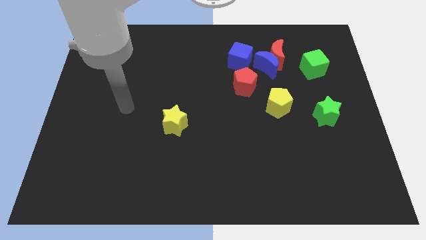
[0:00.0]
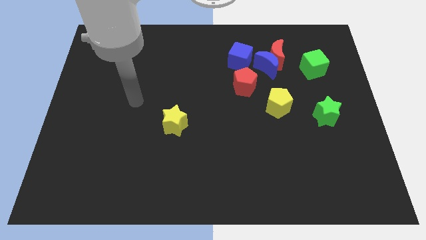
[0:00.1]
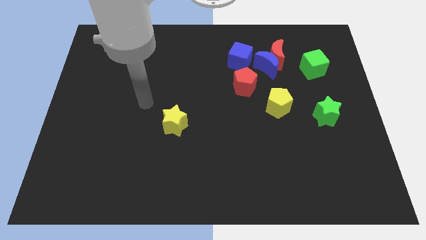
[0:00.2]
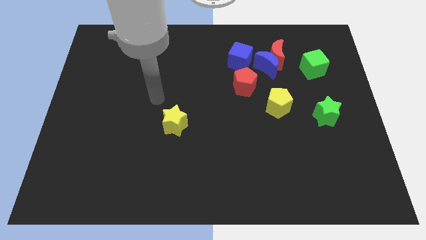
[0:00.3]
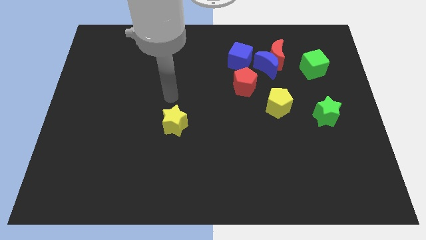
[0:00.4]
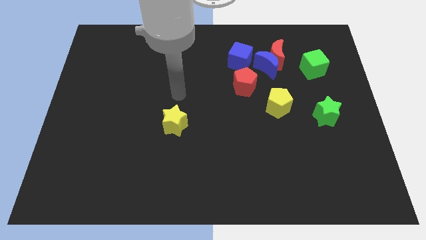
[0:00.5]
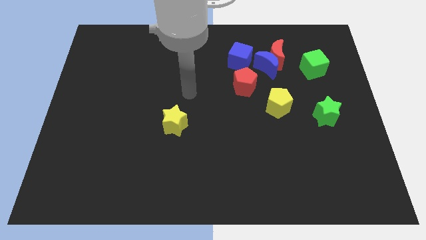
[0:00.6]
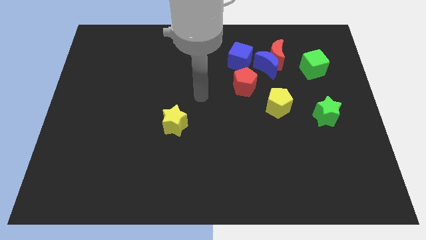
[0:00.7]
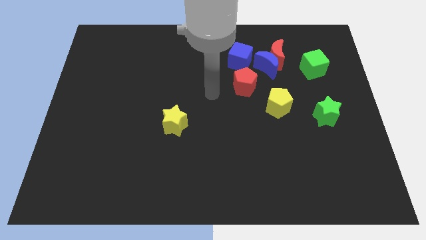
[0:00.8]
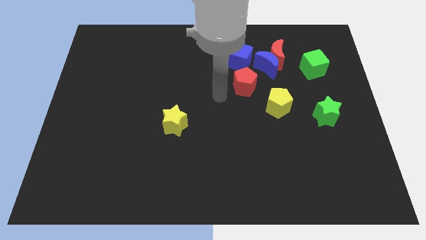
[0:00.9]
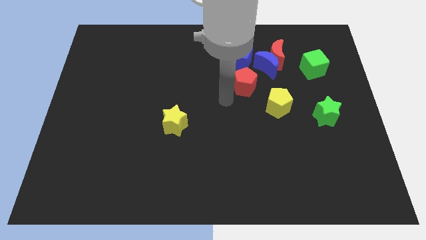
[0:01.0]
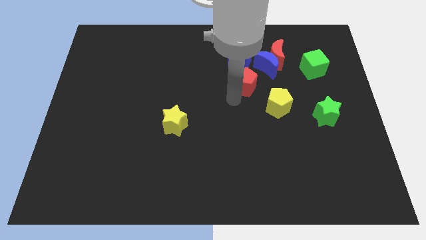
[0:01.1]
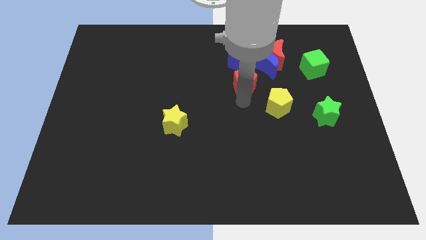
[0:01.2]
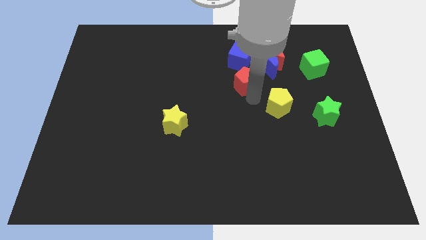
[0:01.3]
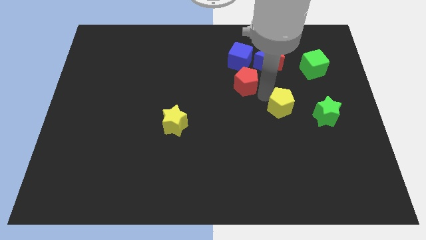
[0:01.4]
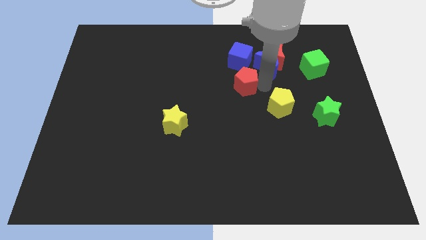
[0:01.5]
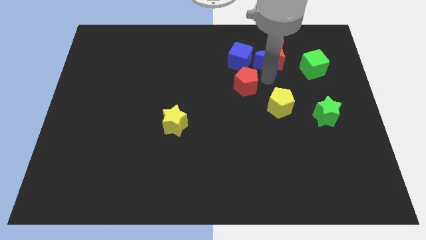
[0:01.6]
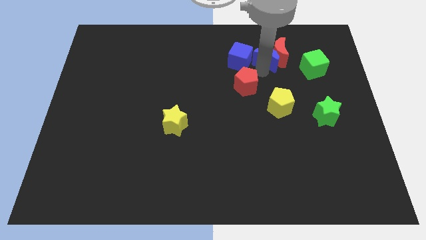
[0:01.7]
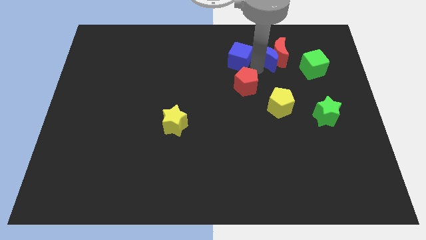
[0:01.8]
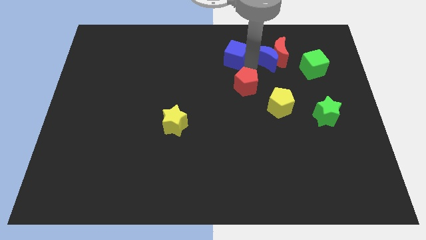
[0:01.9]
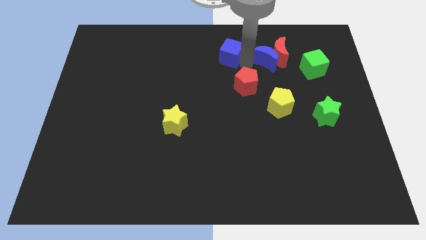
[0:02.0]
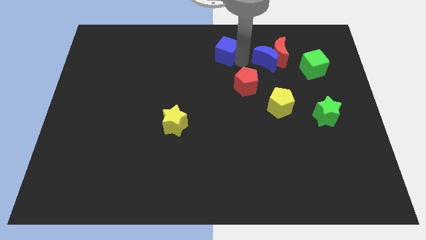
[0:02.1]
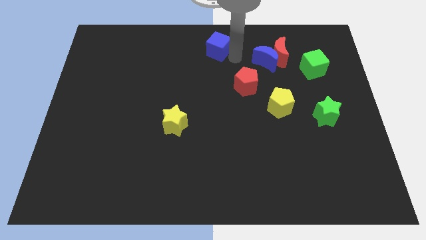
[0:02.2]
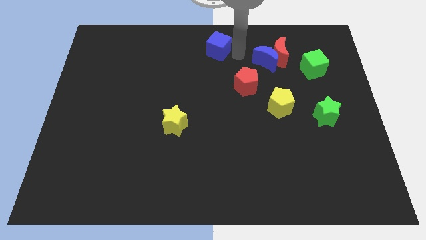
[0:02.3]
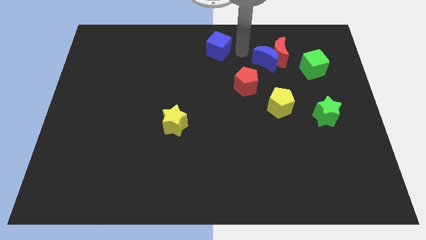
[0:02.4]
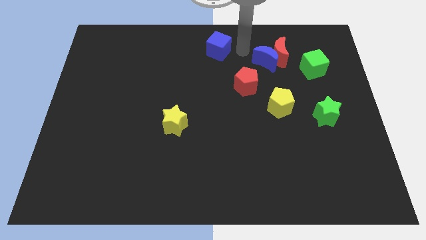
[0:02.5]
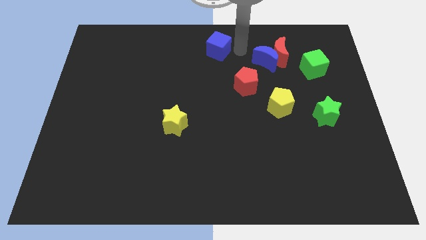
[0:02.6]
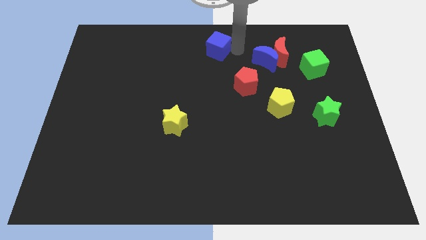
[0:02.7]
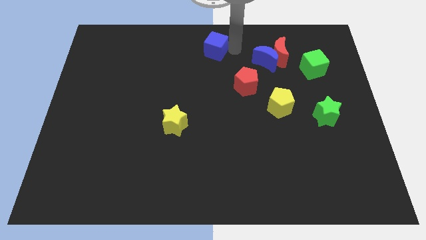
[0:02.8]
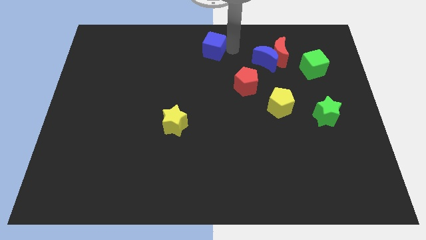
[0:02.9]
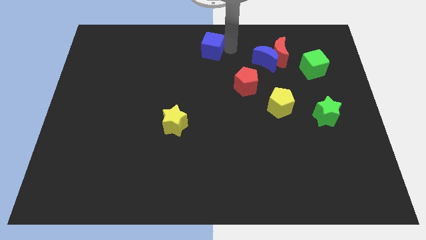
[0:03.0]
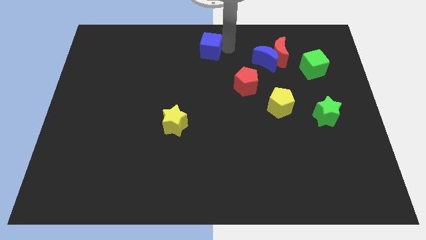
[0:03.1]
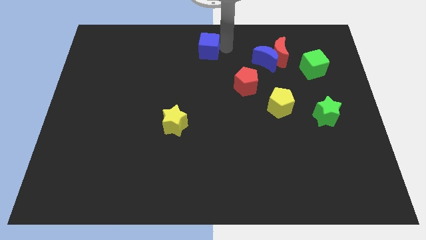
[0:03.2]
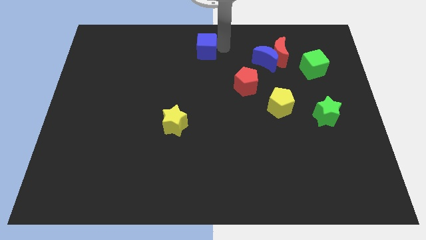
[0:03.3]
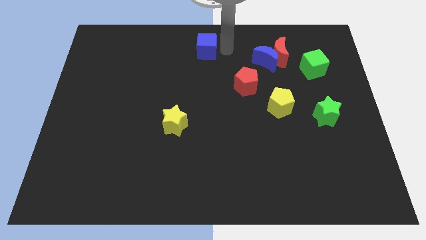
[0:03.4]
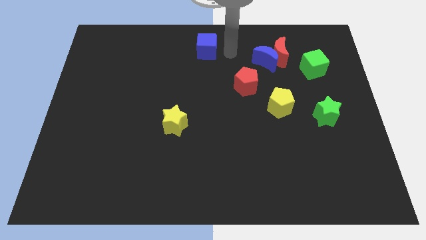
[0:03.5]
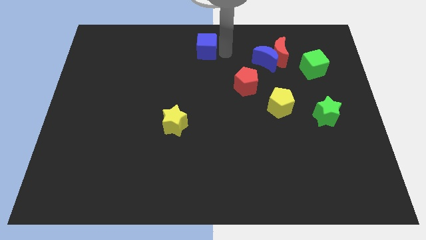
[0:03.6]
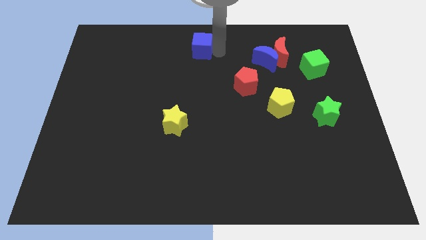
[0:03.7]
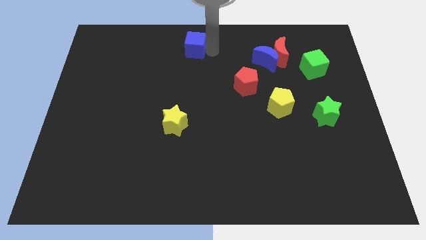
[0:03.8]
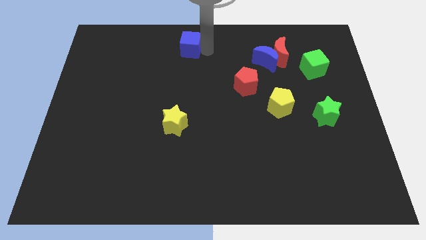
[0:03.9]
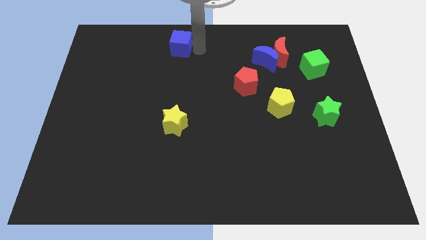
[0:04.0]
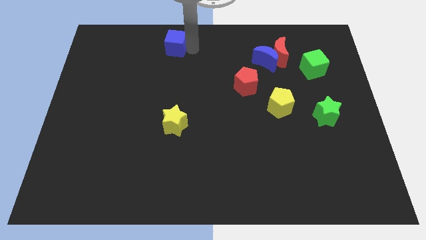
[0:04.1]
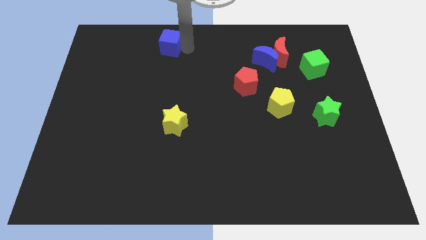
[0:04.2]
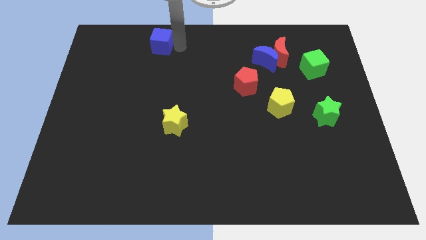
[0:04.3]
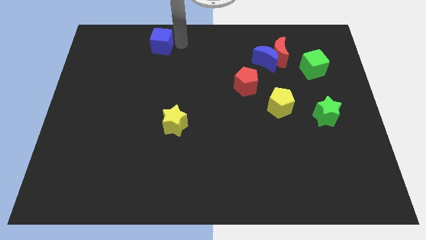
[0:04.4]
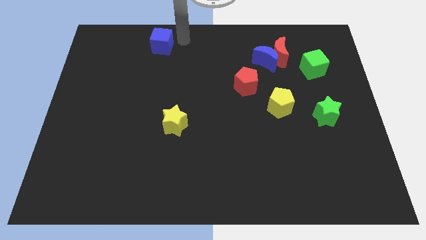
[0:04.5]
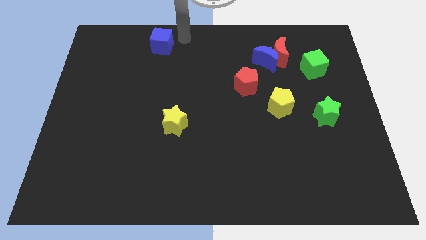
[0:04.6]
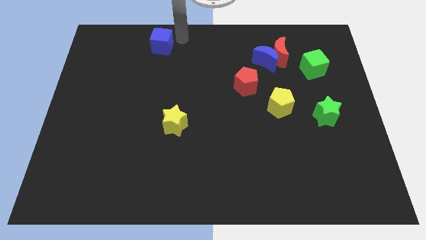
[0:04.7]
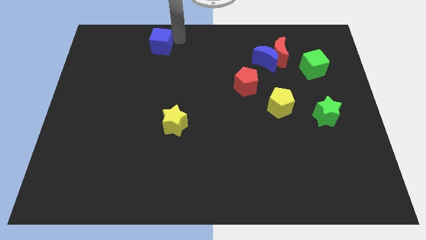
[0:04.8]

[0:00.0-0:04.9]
slide the blue cube to the left

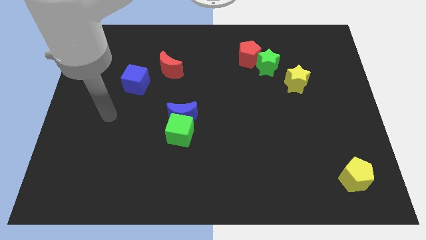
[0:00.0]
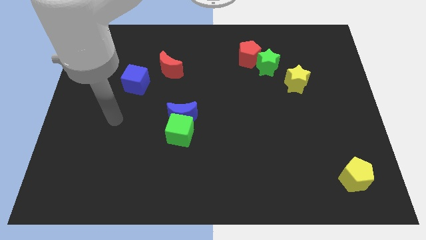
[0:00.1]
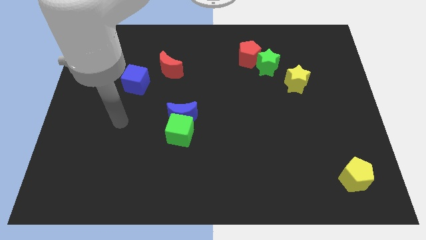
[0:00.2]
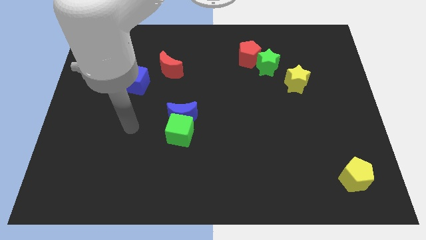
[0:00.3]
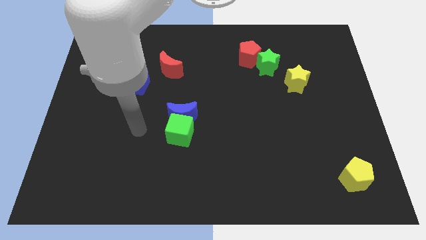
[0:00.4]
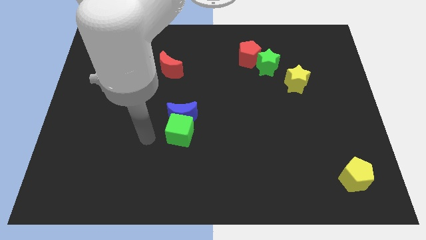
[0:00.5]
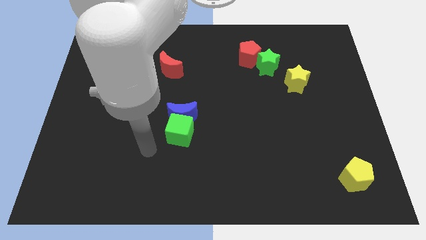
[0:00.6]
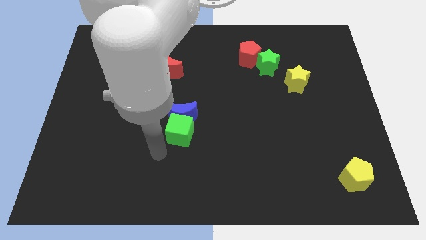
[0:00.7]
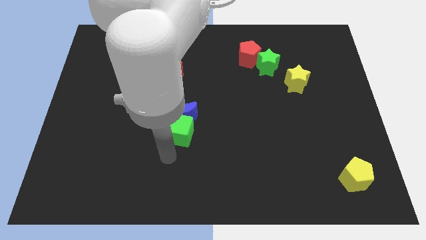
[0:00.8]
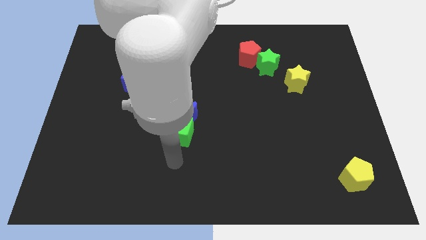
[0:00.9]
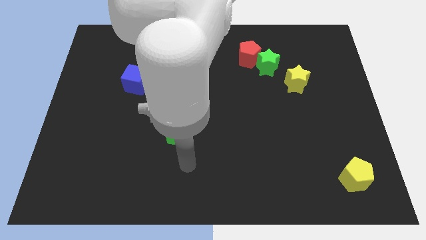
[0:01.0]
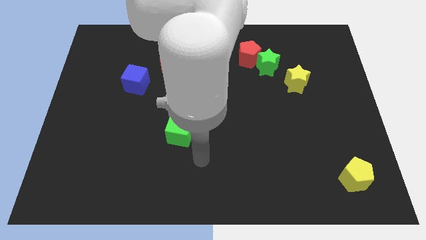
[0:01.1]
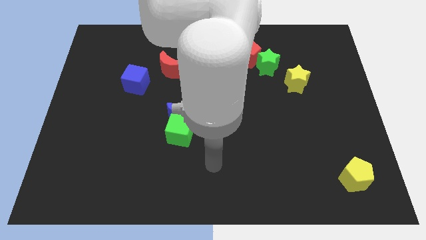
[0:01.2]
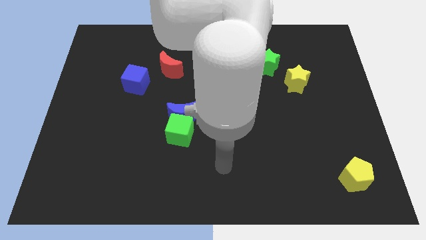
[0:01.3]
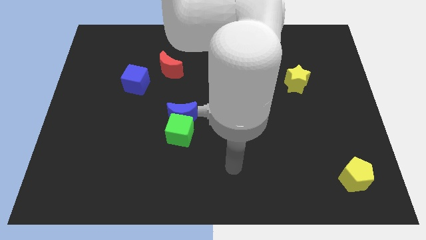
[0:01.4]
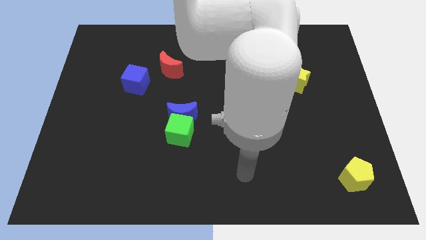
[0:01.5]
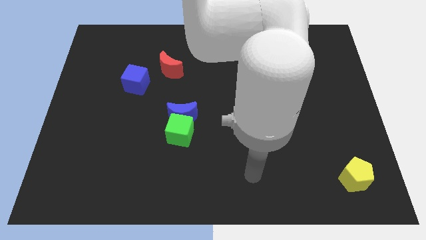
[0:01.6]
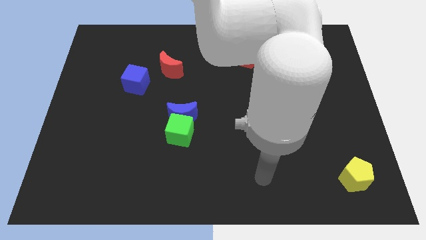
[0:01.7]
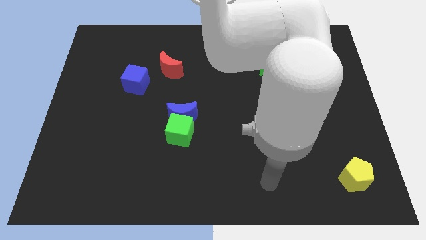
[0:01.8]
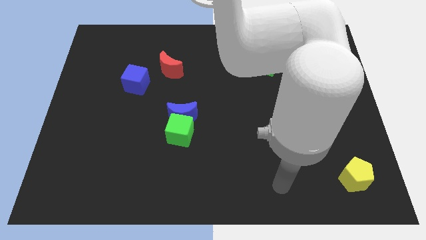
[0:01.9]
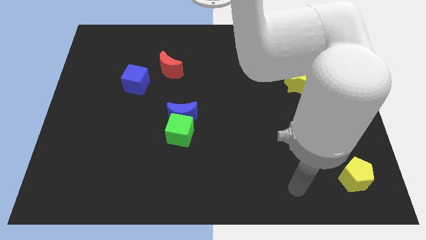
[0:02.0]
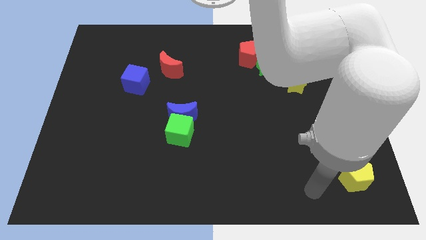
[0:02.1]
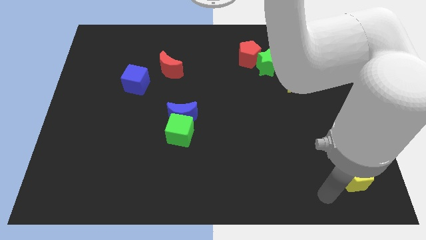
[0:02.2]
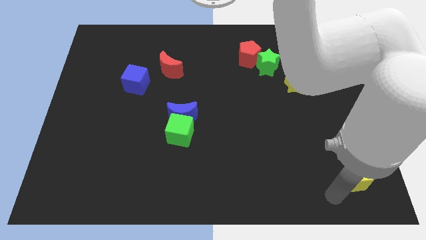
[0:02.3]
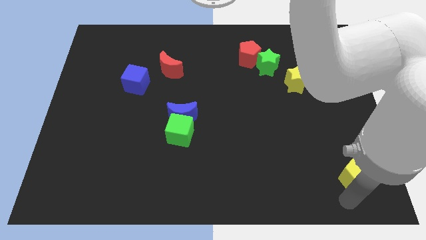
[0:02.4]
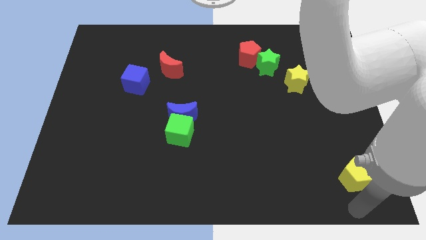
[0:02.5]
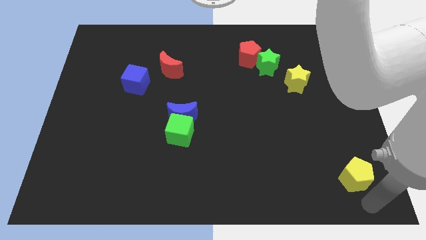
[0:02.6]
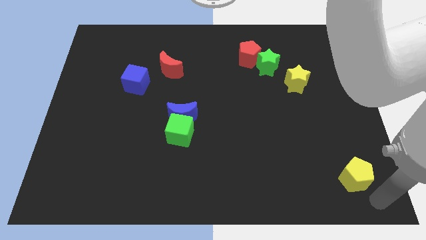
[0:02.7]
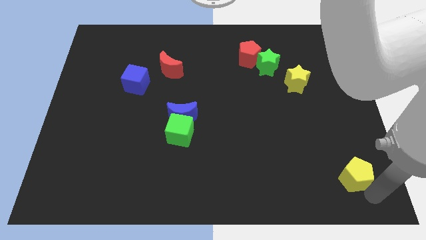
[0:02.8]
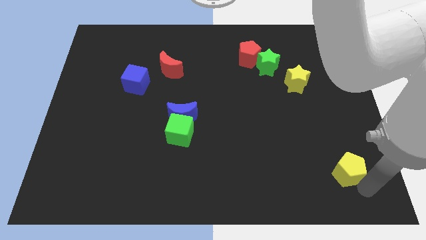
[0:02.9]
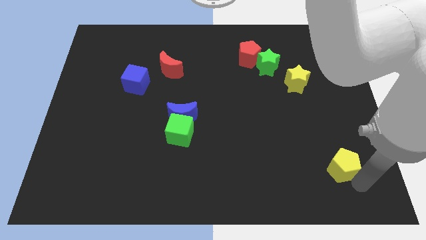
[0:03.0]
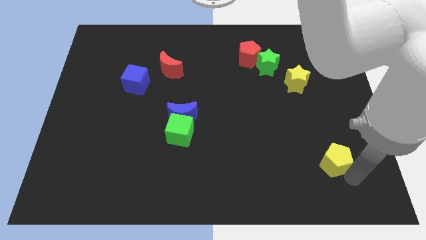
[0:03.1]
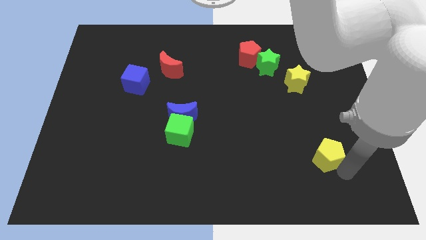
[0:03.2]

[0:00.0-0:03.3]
slightly slide the yellow pentagon up and left
